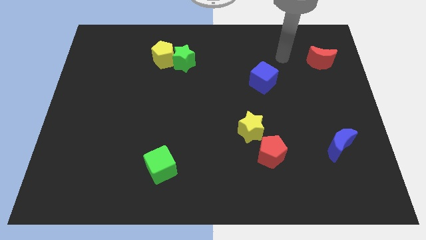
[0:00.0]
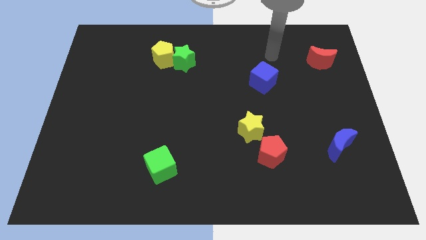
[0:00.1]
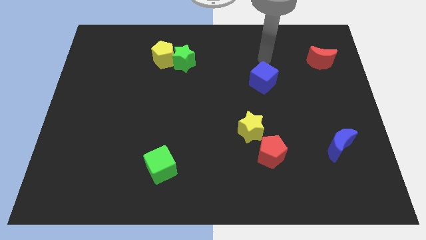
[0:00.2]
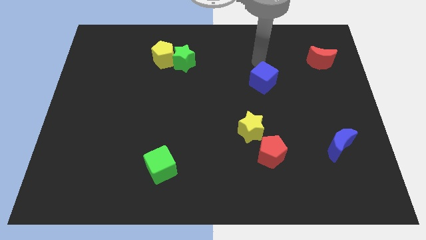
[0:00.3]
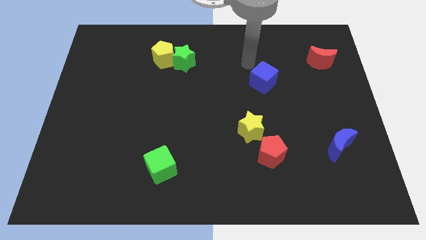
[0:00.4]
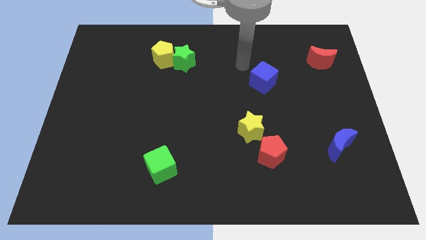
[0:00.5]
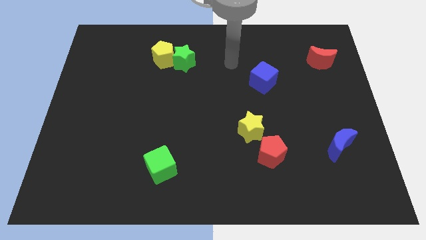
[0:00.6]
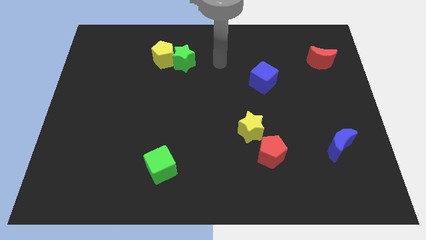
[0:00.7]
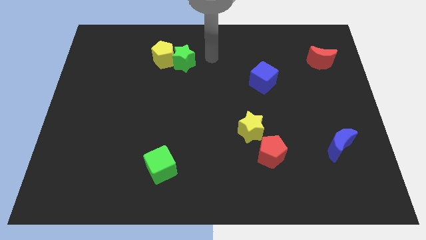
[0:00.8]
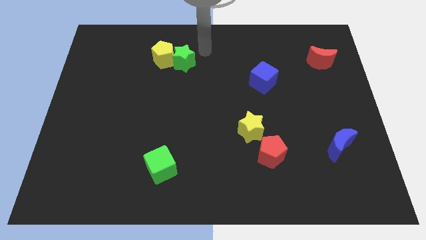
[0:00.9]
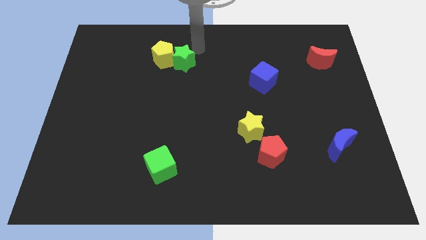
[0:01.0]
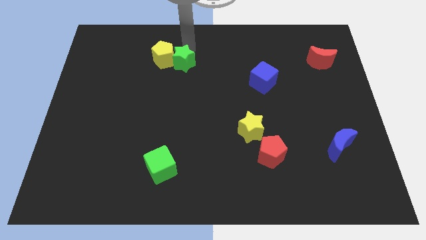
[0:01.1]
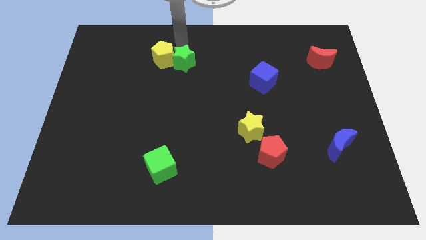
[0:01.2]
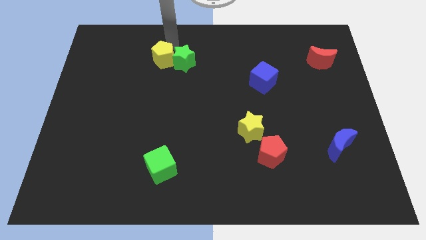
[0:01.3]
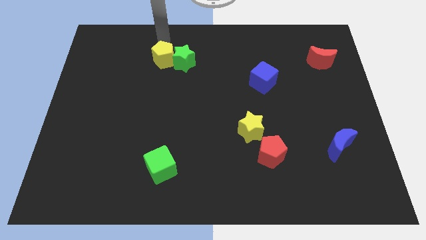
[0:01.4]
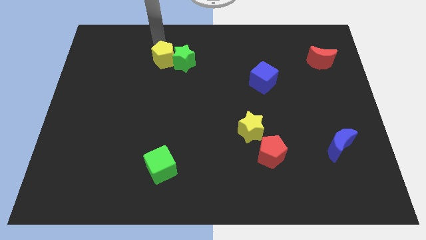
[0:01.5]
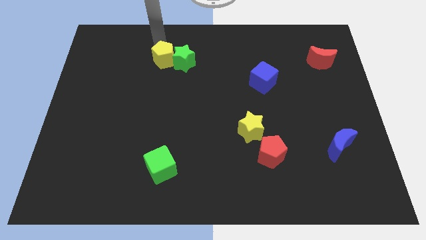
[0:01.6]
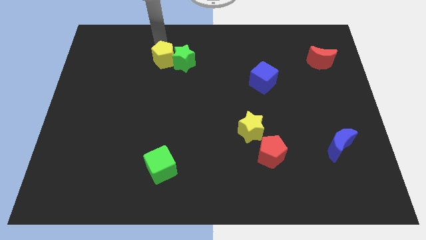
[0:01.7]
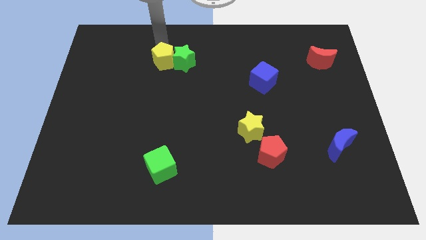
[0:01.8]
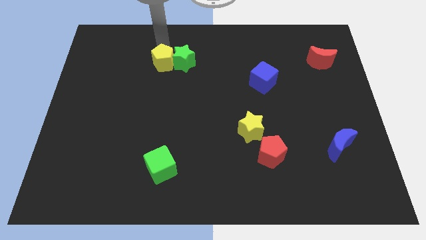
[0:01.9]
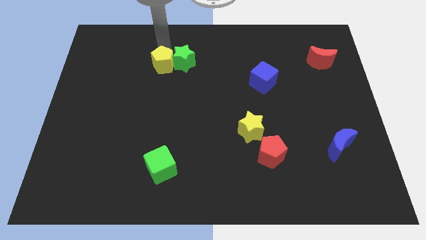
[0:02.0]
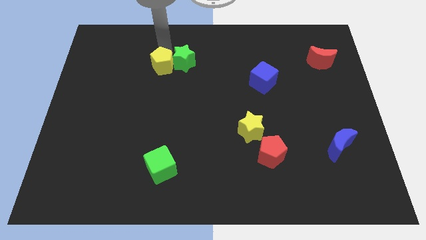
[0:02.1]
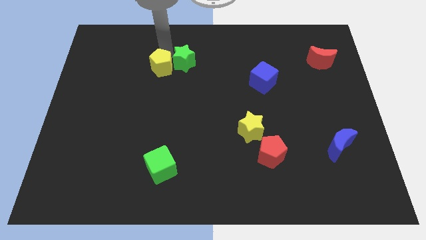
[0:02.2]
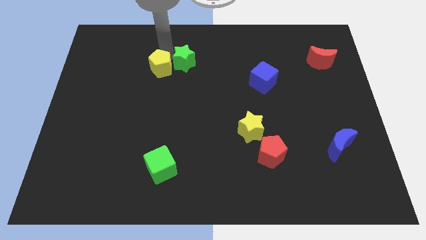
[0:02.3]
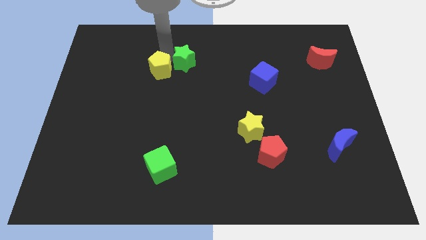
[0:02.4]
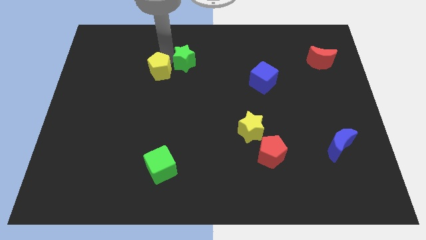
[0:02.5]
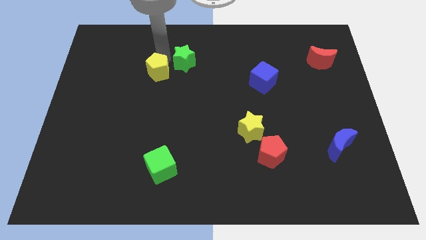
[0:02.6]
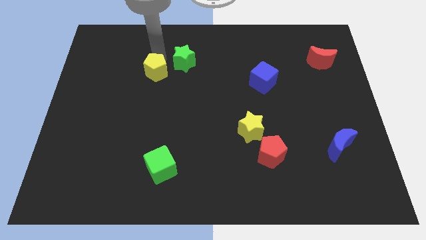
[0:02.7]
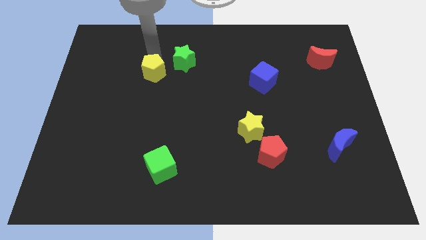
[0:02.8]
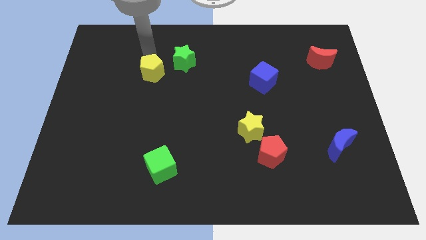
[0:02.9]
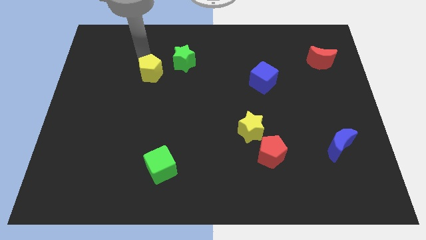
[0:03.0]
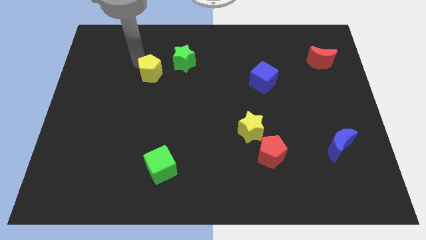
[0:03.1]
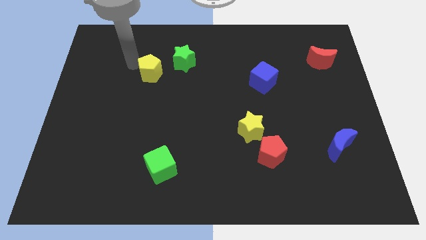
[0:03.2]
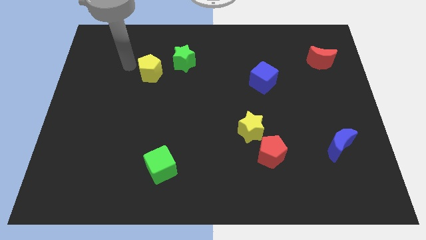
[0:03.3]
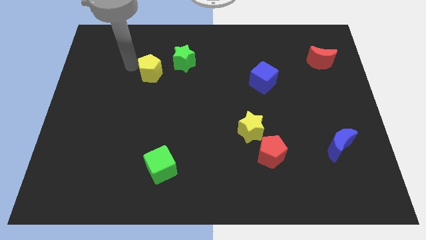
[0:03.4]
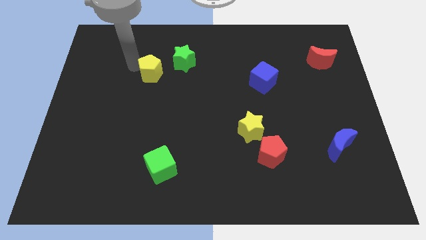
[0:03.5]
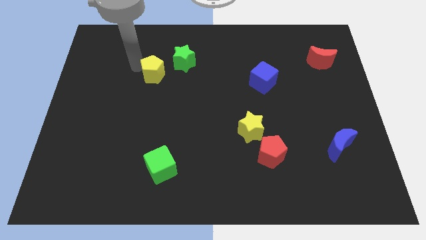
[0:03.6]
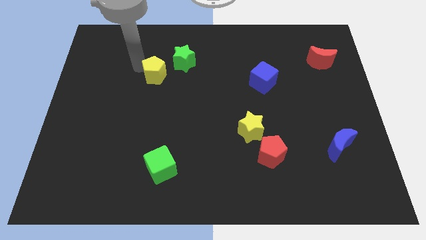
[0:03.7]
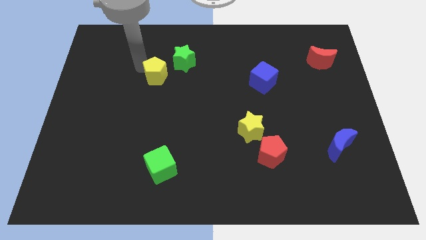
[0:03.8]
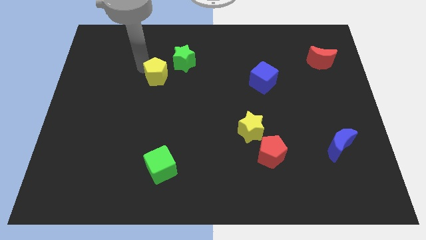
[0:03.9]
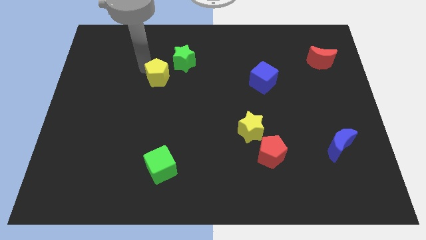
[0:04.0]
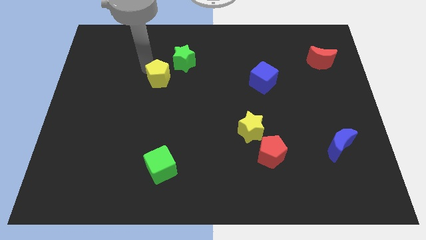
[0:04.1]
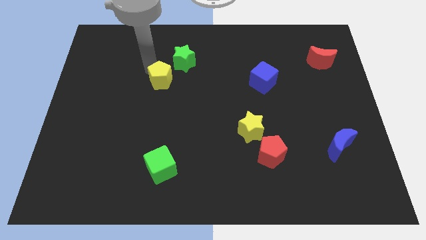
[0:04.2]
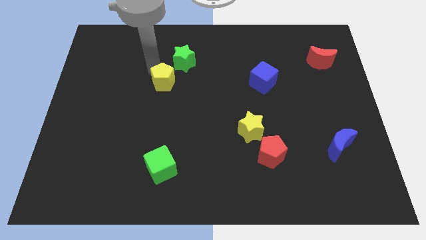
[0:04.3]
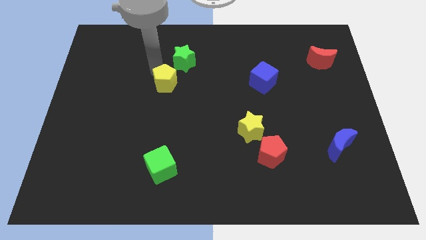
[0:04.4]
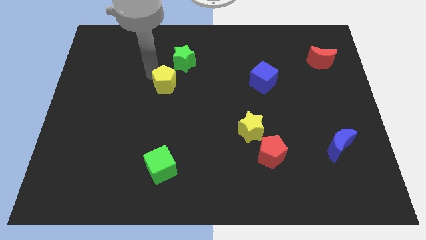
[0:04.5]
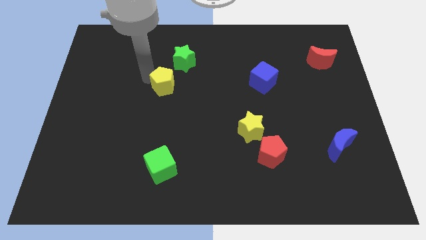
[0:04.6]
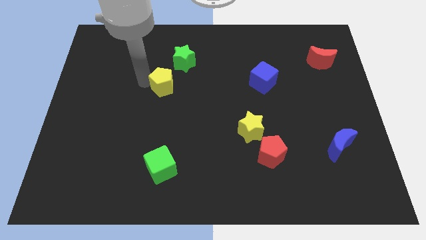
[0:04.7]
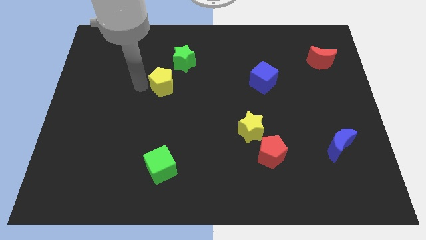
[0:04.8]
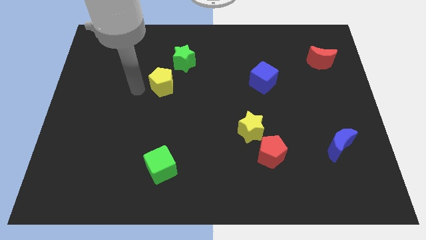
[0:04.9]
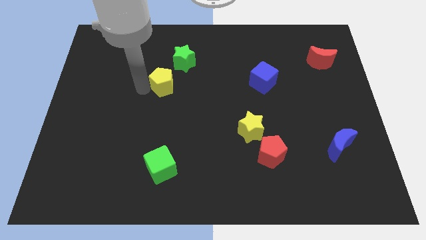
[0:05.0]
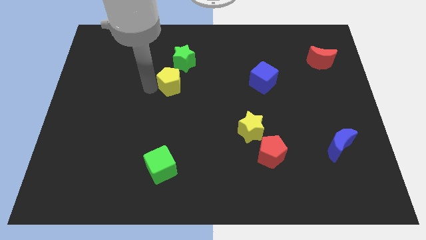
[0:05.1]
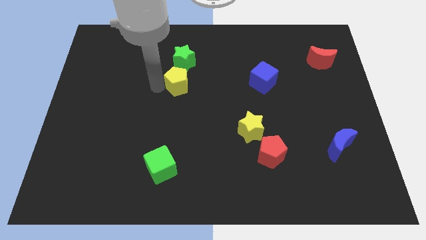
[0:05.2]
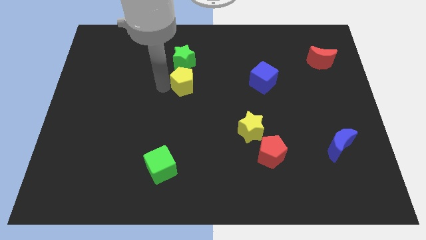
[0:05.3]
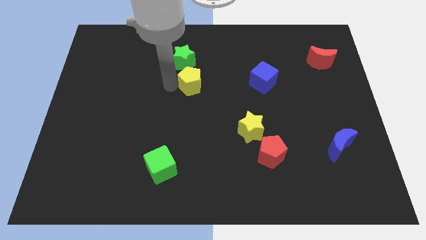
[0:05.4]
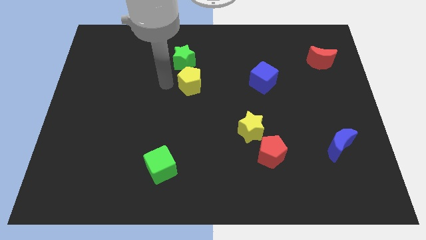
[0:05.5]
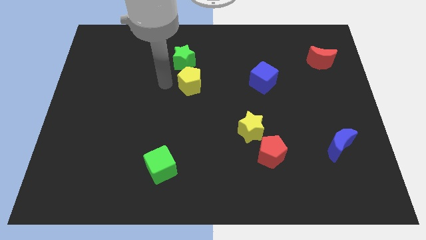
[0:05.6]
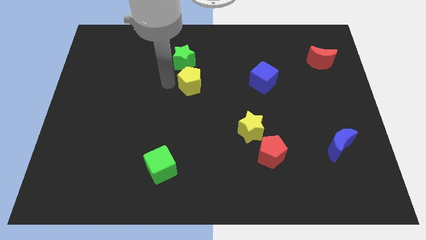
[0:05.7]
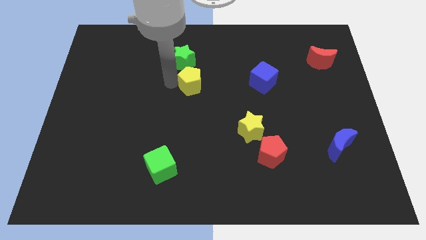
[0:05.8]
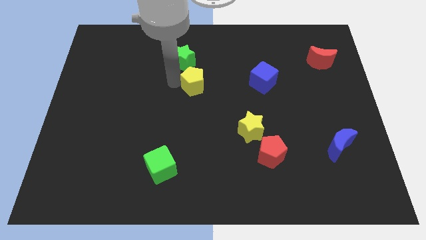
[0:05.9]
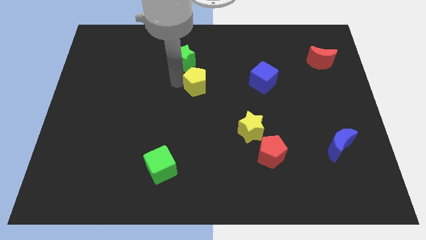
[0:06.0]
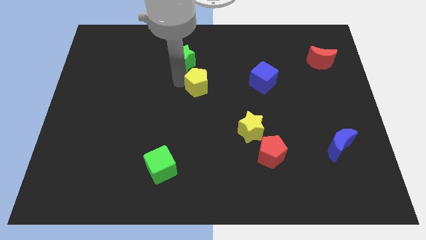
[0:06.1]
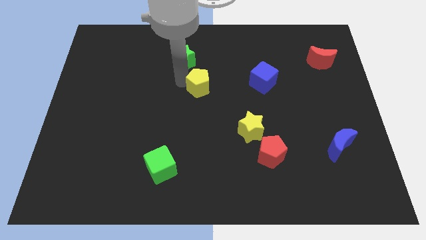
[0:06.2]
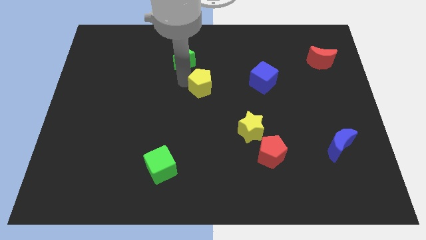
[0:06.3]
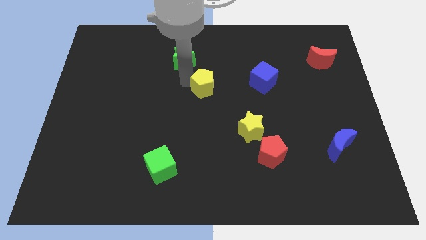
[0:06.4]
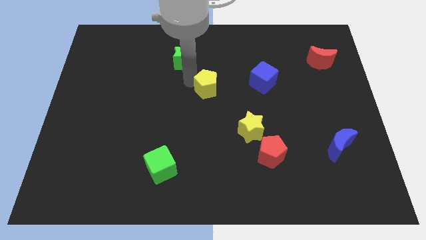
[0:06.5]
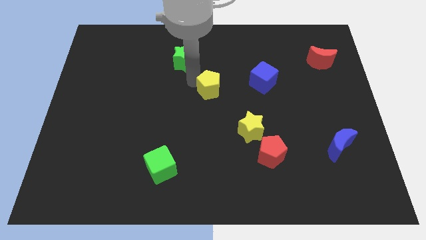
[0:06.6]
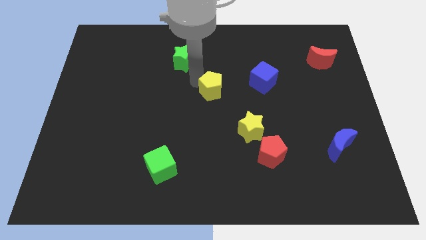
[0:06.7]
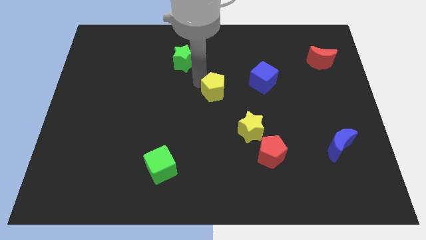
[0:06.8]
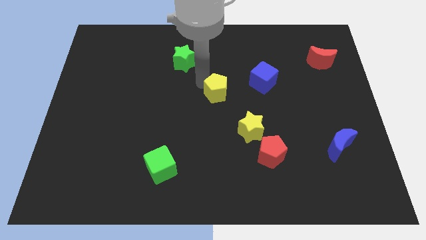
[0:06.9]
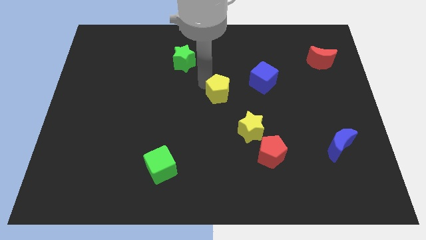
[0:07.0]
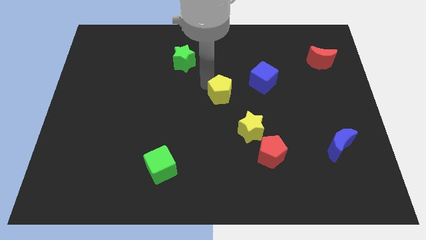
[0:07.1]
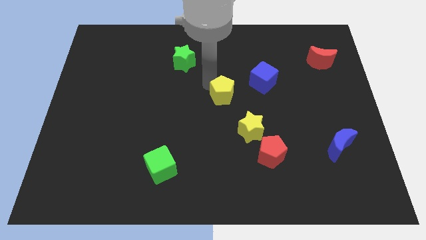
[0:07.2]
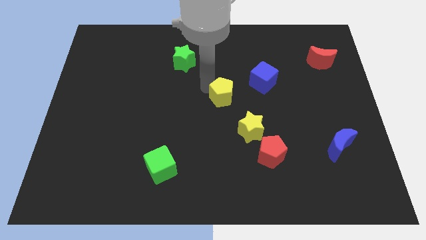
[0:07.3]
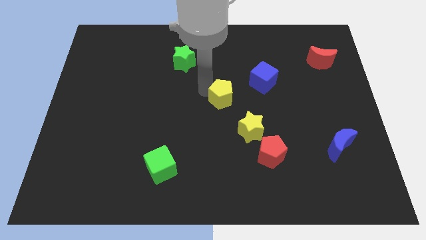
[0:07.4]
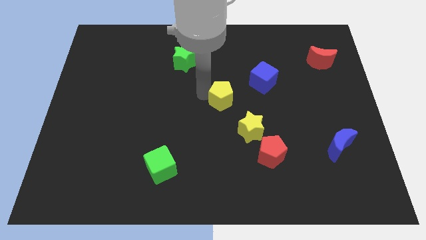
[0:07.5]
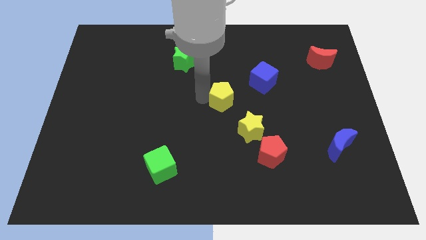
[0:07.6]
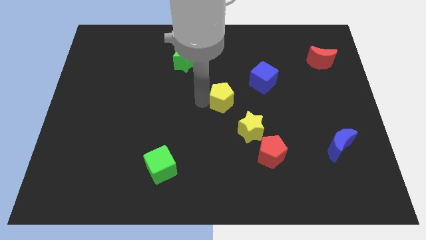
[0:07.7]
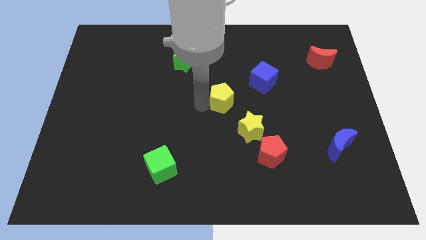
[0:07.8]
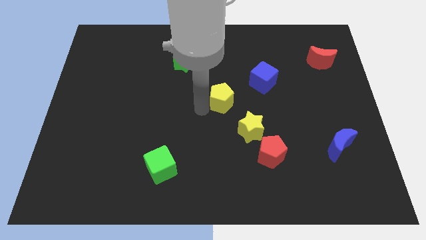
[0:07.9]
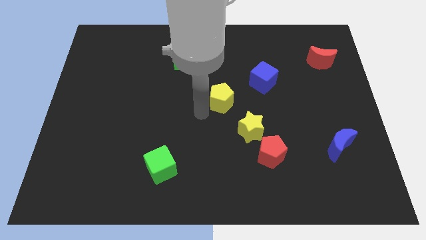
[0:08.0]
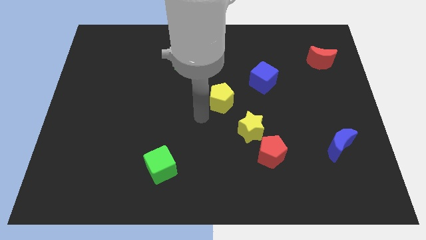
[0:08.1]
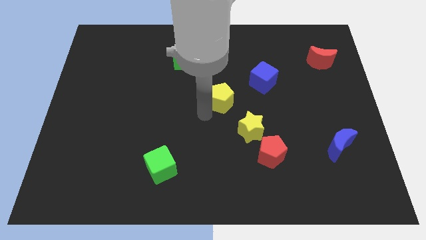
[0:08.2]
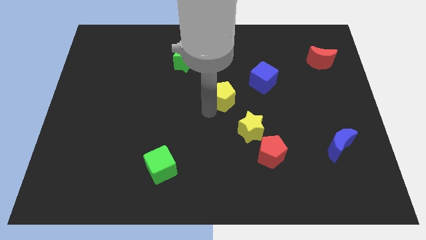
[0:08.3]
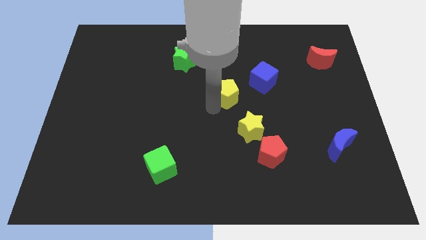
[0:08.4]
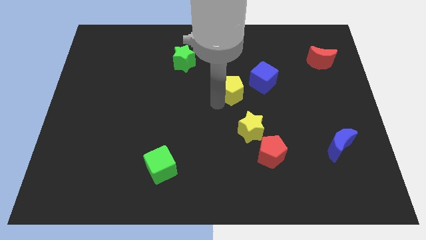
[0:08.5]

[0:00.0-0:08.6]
push the yellow pentagon to the top of the yellow star
